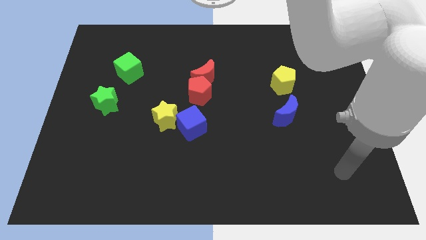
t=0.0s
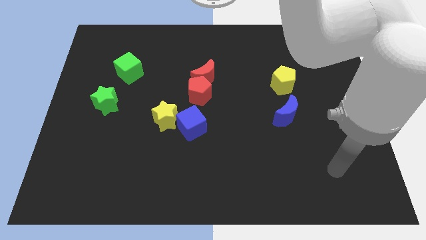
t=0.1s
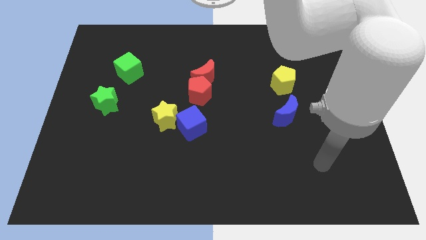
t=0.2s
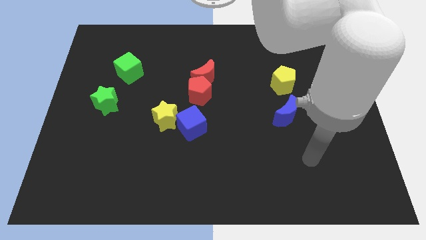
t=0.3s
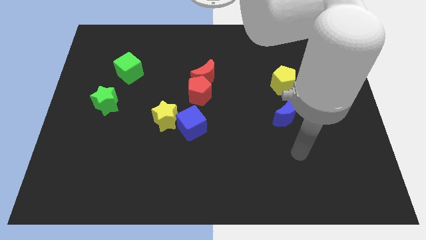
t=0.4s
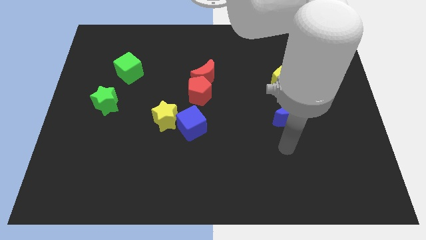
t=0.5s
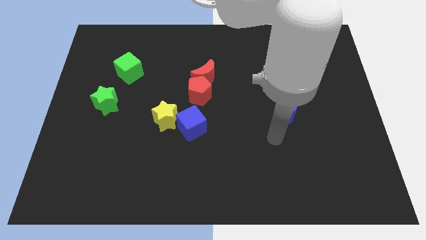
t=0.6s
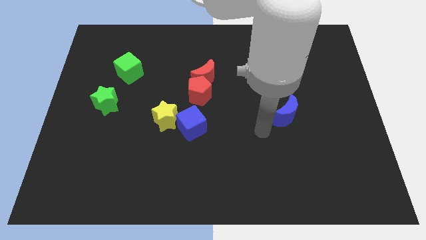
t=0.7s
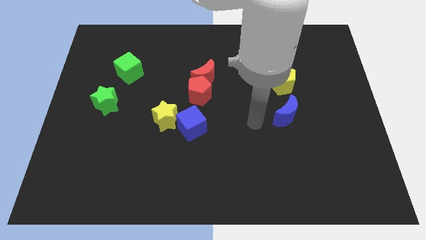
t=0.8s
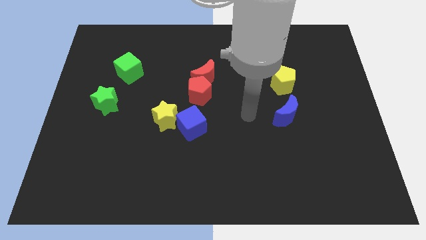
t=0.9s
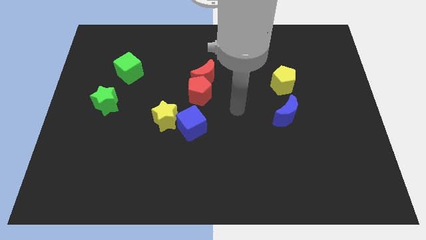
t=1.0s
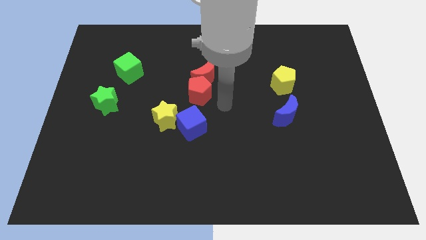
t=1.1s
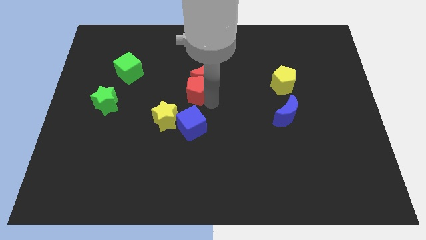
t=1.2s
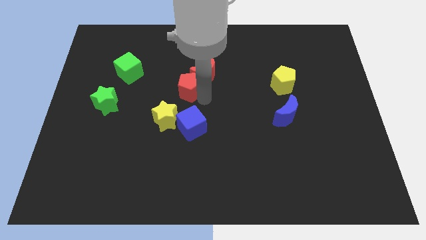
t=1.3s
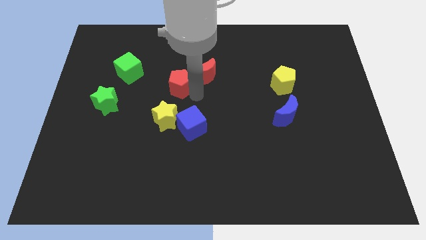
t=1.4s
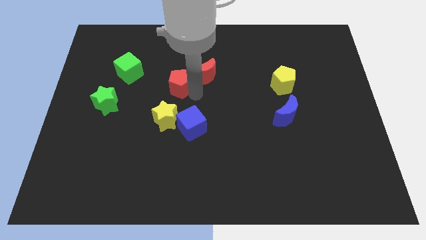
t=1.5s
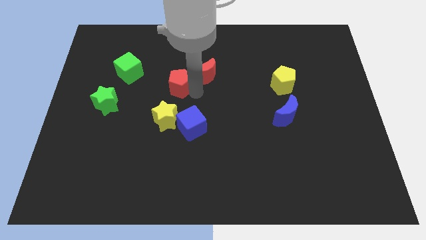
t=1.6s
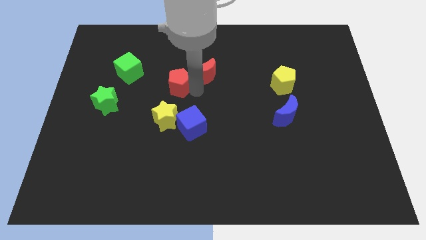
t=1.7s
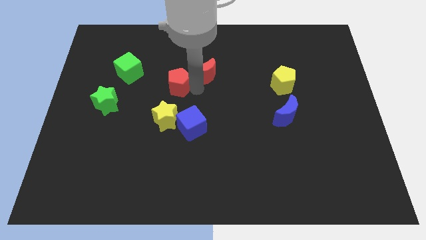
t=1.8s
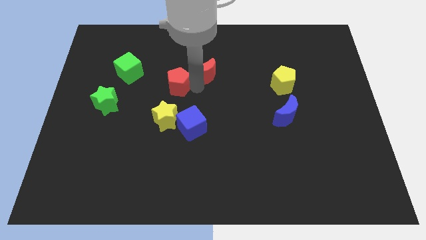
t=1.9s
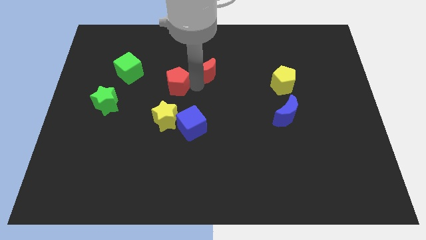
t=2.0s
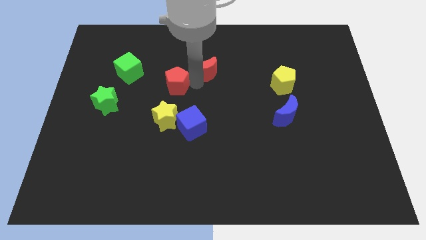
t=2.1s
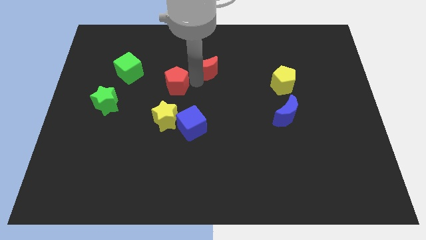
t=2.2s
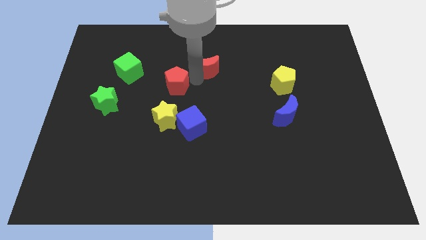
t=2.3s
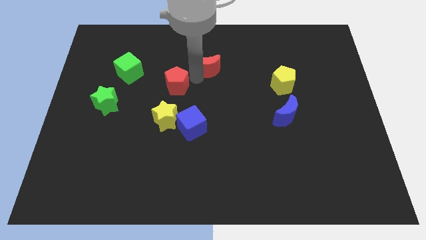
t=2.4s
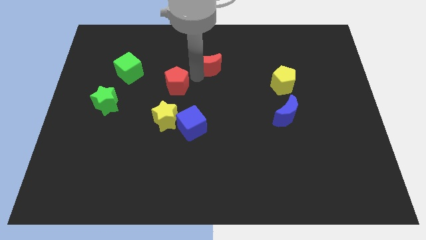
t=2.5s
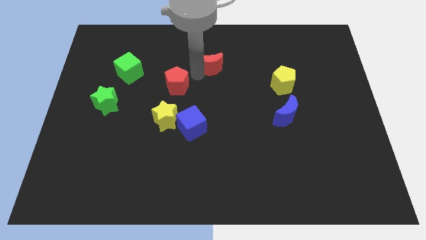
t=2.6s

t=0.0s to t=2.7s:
separate the red moon from the red pentagon

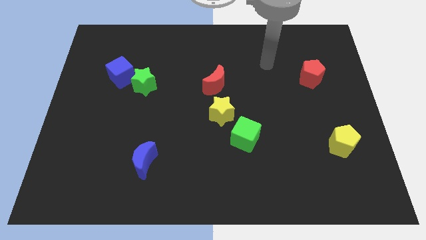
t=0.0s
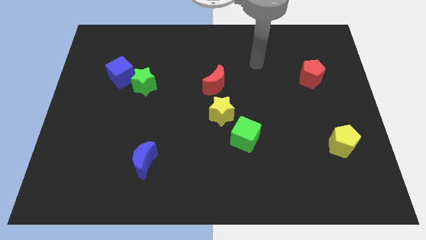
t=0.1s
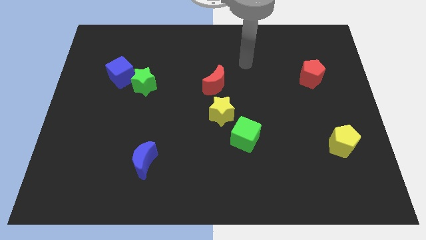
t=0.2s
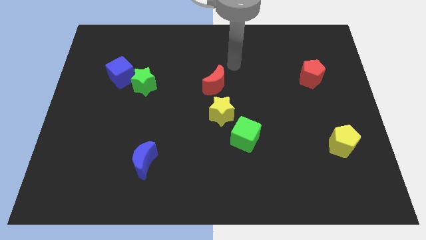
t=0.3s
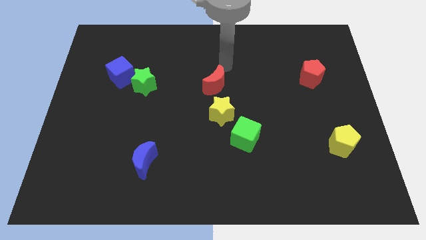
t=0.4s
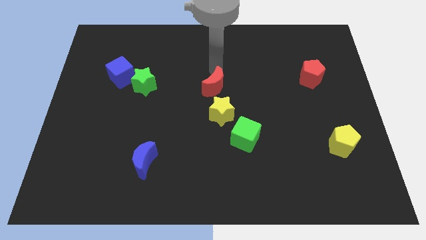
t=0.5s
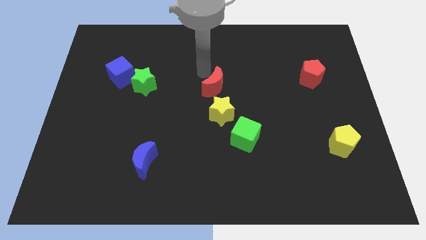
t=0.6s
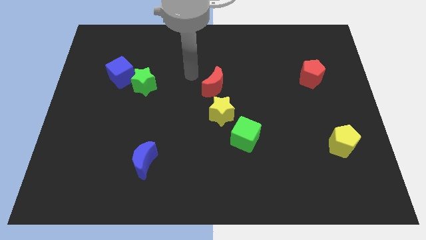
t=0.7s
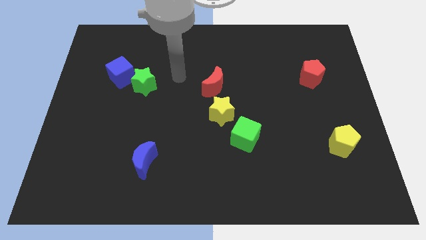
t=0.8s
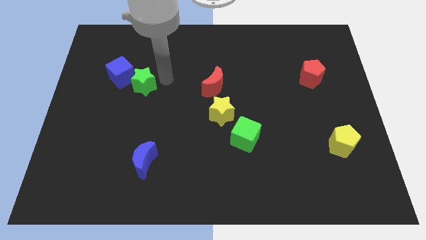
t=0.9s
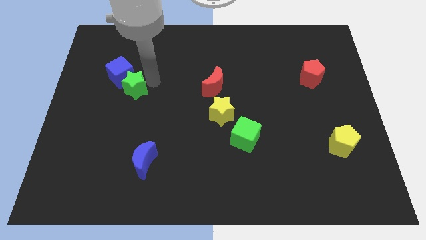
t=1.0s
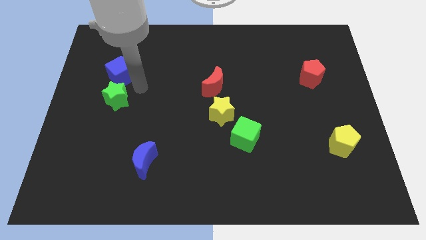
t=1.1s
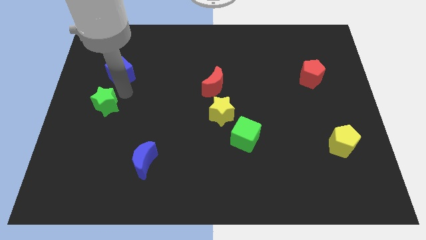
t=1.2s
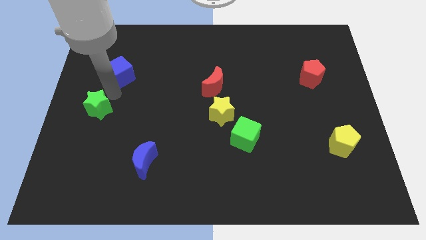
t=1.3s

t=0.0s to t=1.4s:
move the blue cube away from the green star

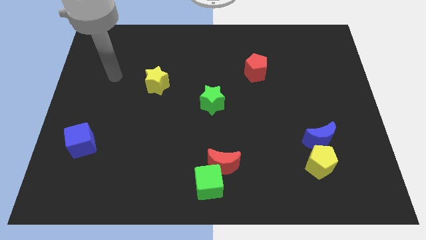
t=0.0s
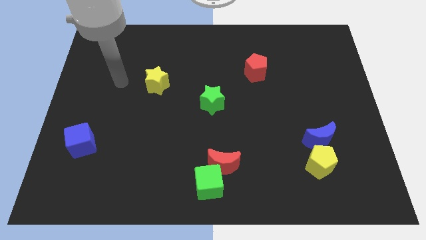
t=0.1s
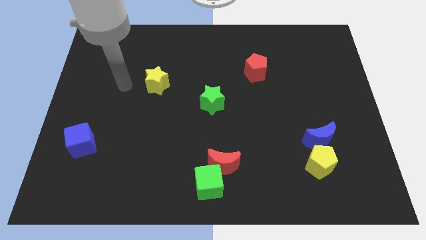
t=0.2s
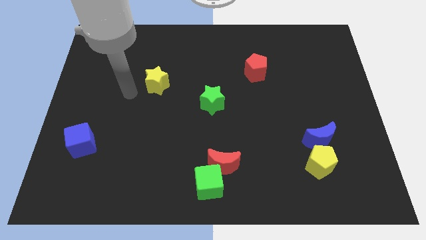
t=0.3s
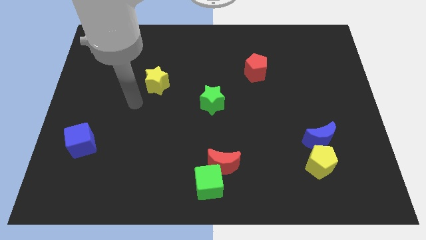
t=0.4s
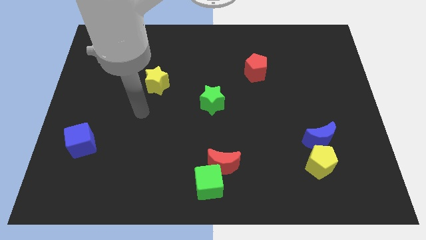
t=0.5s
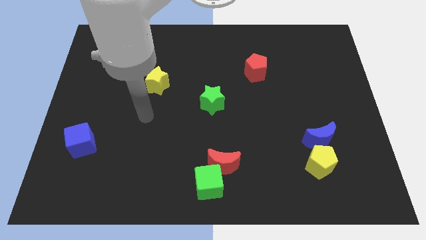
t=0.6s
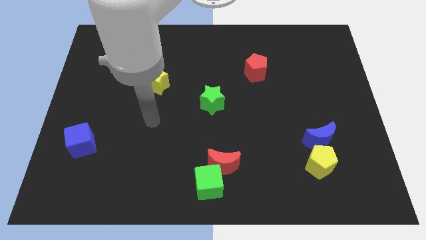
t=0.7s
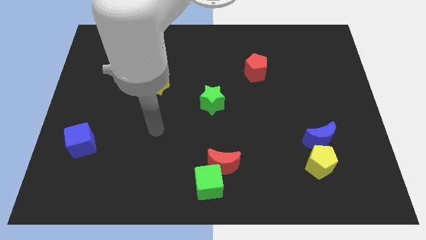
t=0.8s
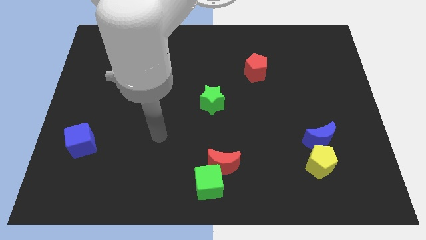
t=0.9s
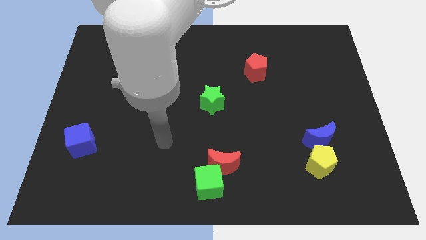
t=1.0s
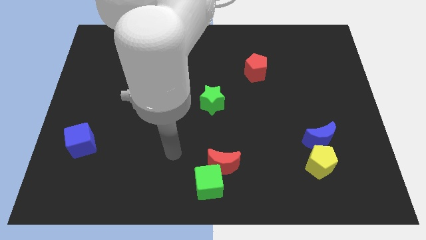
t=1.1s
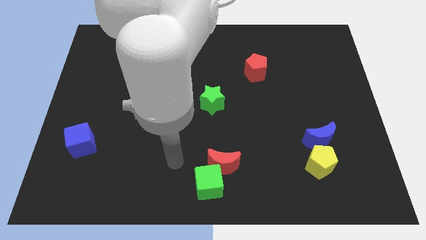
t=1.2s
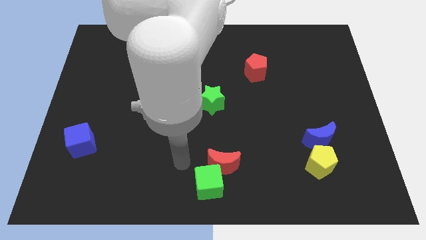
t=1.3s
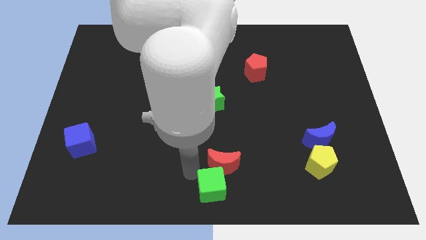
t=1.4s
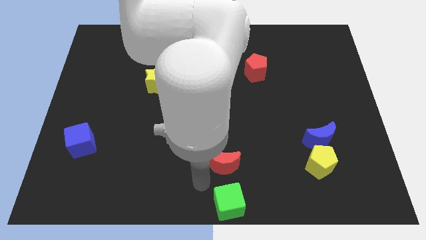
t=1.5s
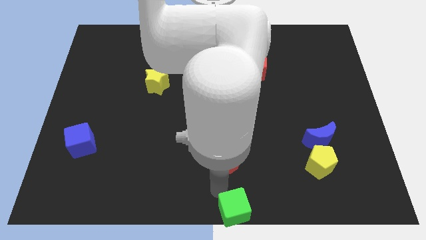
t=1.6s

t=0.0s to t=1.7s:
move the red moon away from the green cube

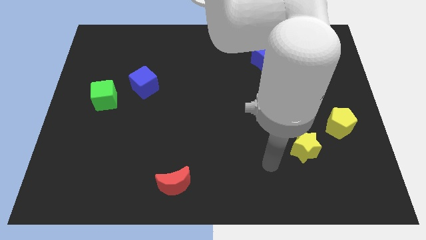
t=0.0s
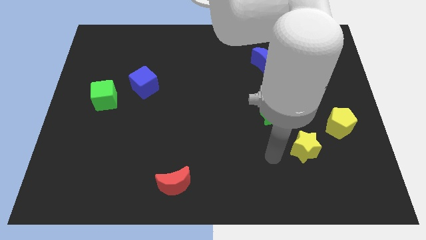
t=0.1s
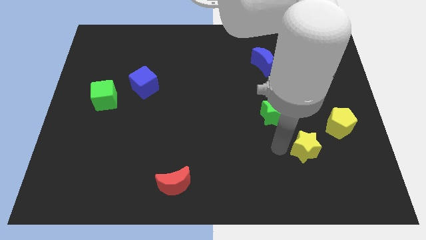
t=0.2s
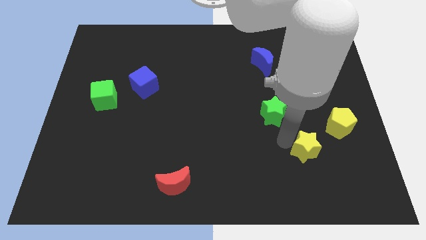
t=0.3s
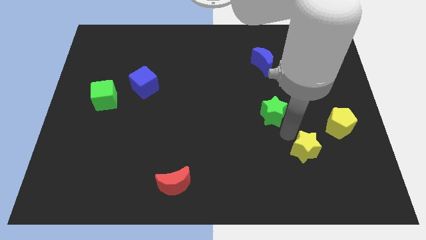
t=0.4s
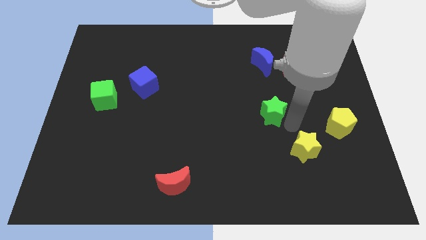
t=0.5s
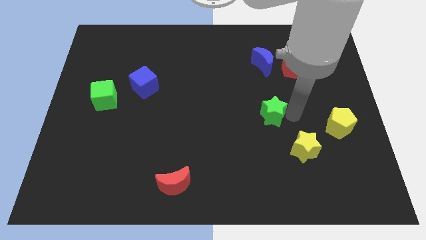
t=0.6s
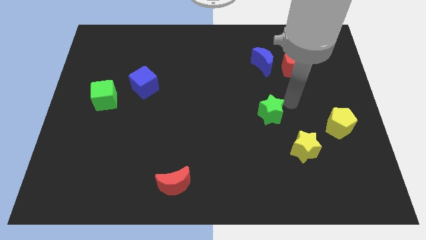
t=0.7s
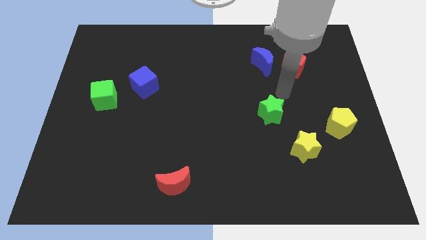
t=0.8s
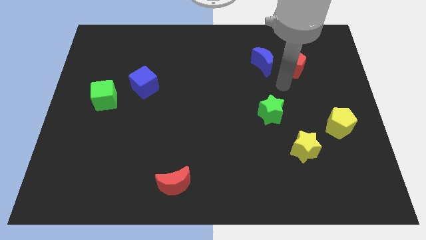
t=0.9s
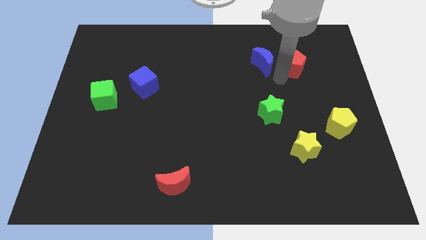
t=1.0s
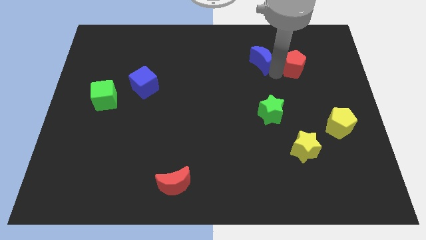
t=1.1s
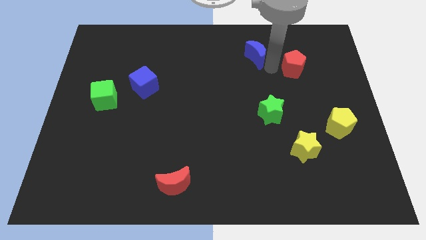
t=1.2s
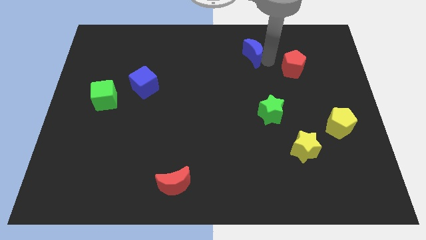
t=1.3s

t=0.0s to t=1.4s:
move the red pentagon away from the blue moon

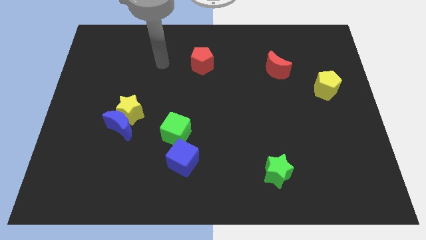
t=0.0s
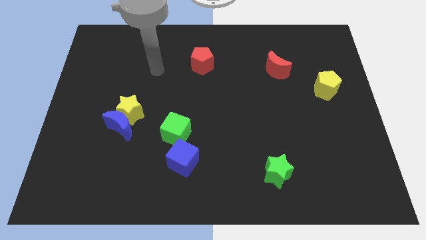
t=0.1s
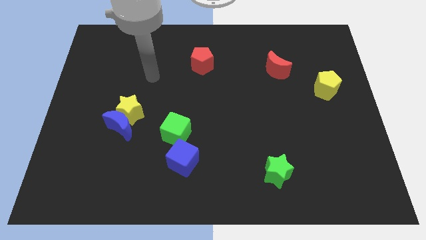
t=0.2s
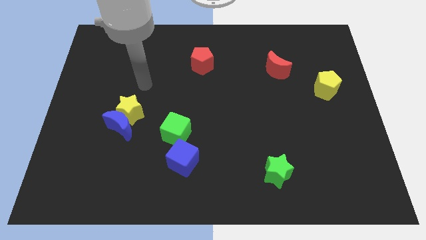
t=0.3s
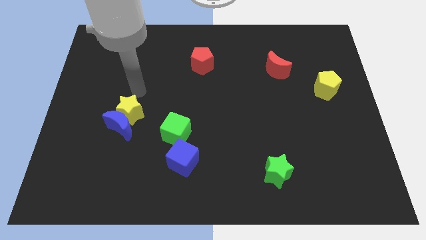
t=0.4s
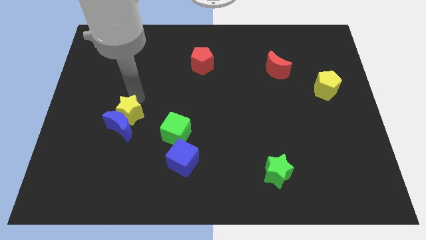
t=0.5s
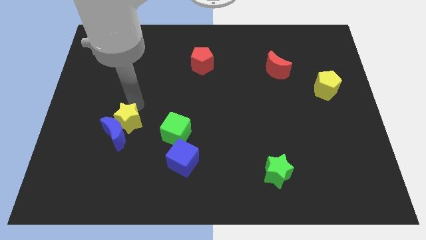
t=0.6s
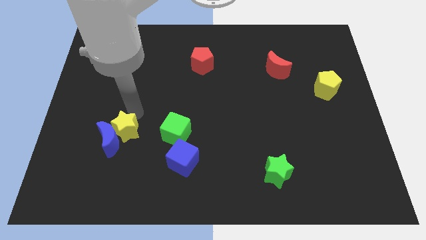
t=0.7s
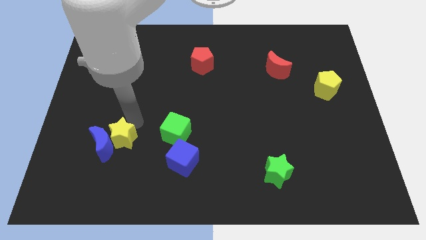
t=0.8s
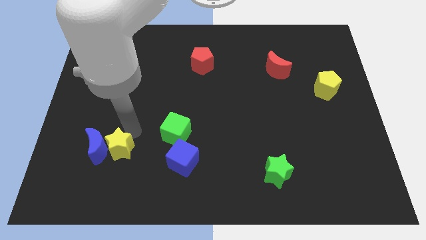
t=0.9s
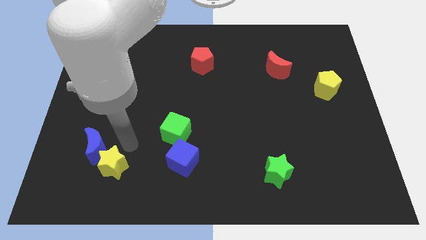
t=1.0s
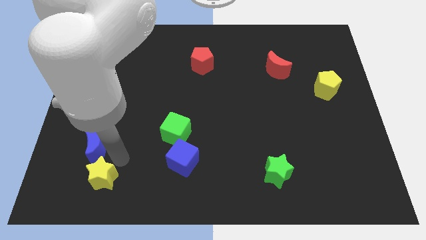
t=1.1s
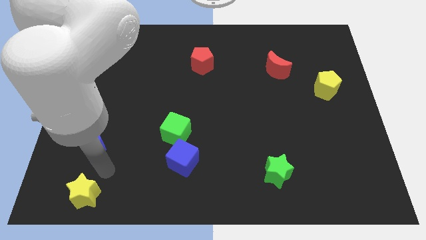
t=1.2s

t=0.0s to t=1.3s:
separate the blue moon from the yellow star

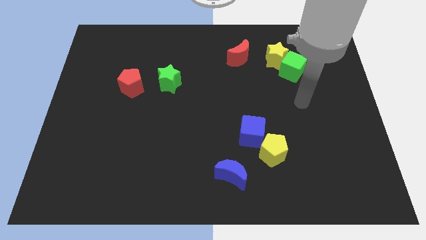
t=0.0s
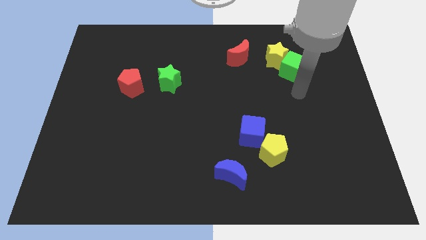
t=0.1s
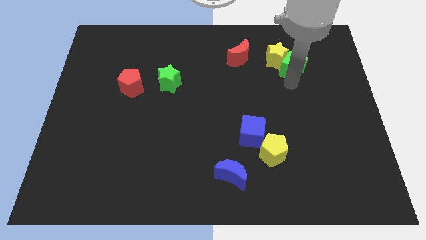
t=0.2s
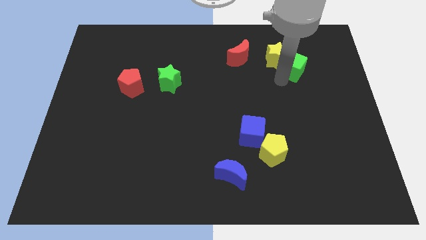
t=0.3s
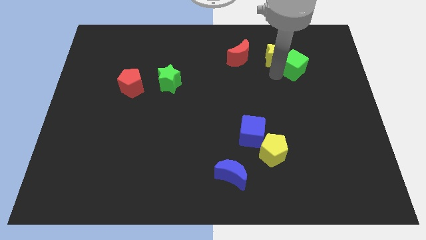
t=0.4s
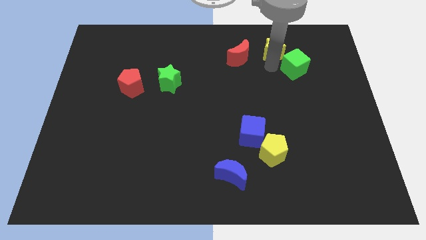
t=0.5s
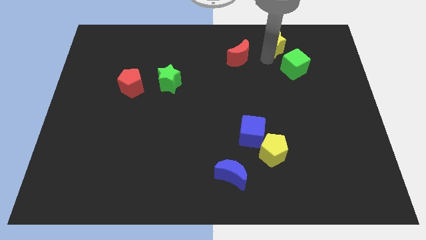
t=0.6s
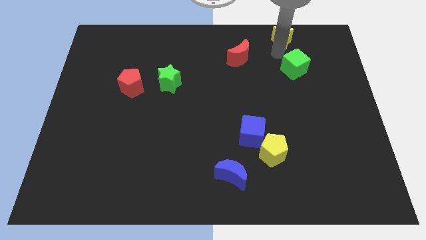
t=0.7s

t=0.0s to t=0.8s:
move the green cube away from the yellow star

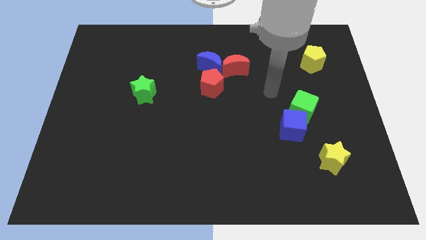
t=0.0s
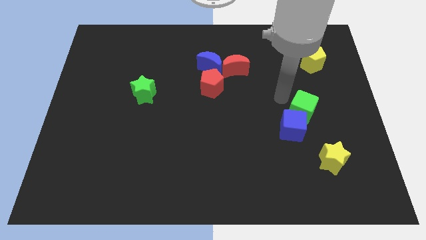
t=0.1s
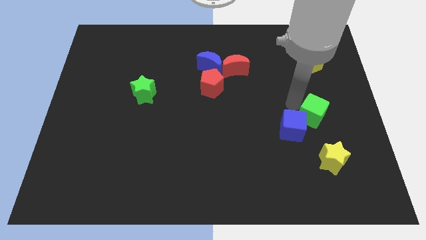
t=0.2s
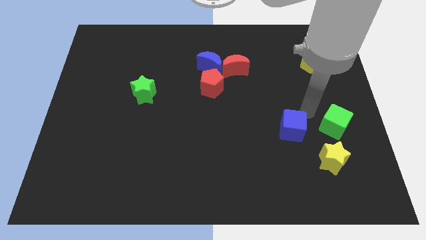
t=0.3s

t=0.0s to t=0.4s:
pull the blue cube apart from the green cube
